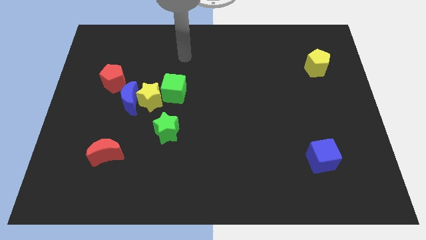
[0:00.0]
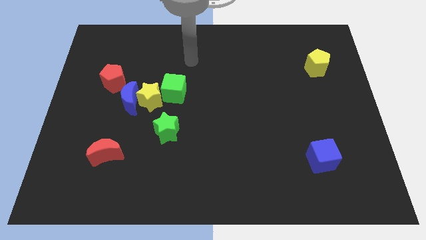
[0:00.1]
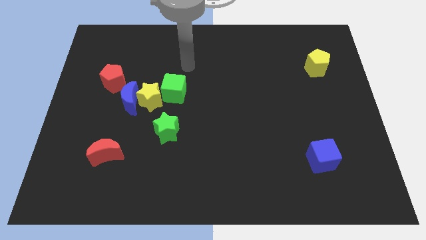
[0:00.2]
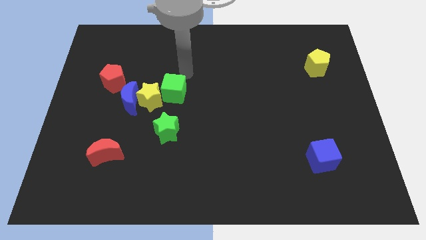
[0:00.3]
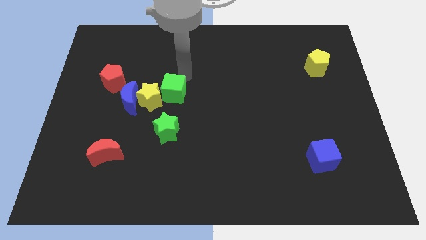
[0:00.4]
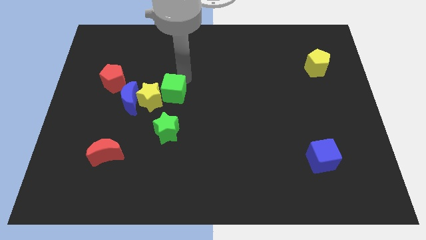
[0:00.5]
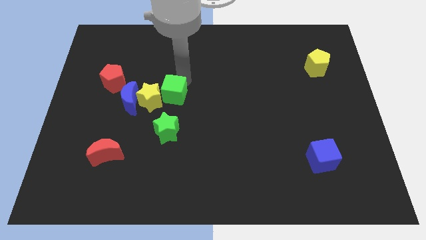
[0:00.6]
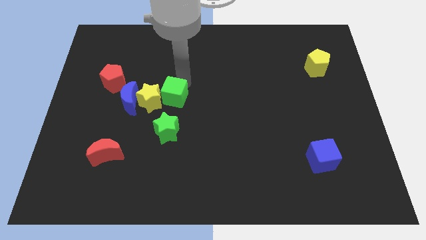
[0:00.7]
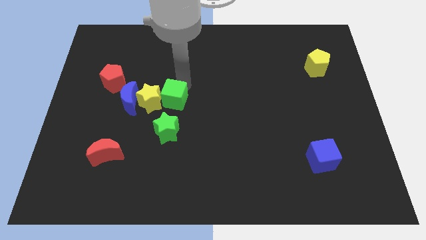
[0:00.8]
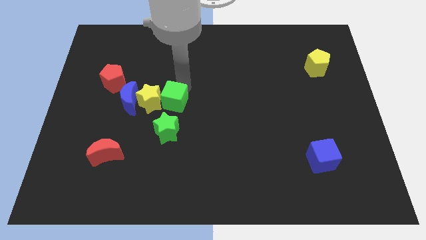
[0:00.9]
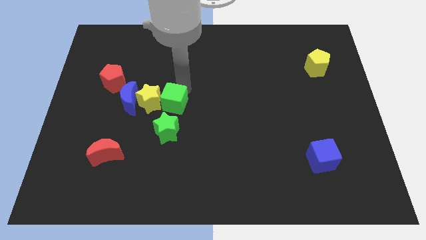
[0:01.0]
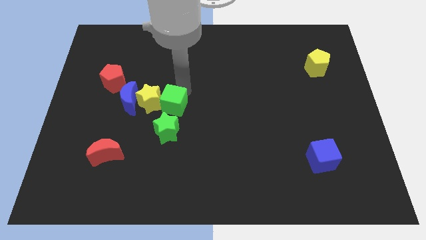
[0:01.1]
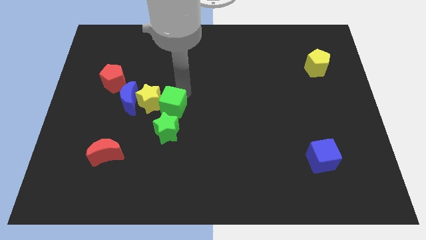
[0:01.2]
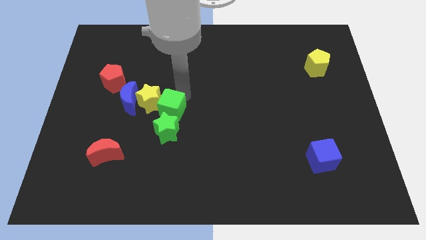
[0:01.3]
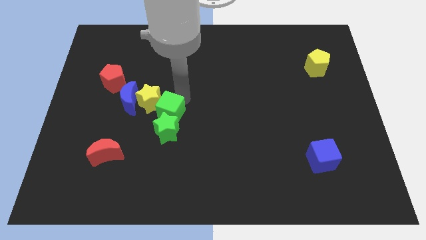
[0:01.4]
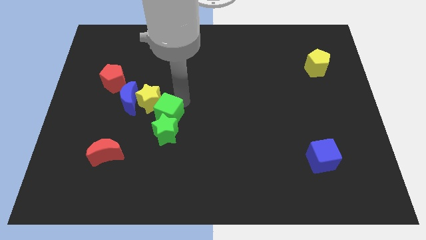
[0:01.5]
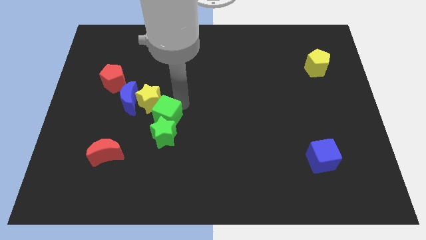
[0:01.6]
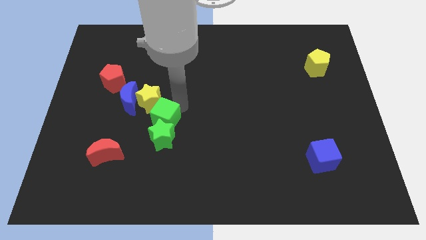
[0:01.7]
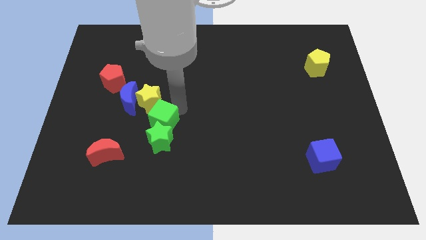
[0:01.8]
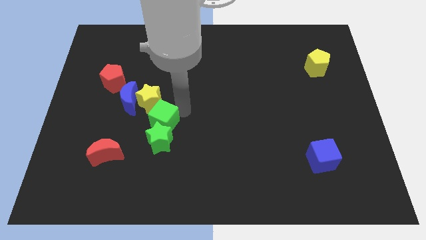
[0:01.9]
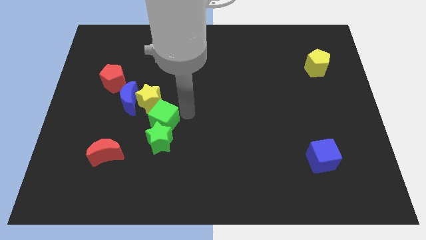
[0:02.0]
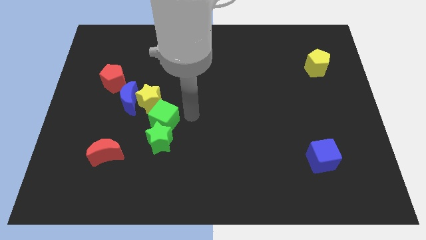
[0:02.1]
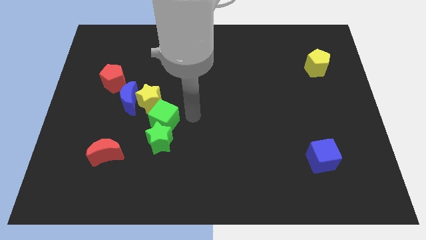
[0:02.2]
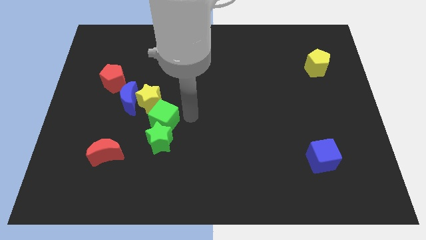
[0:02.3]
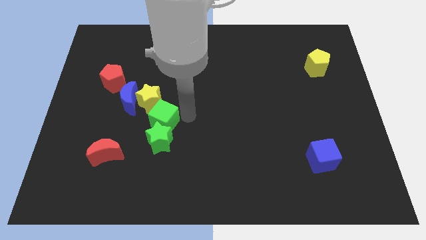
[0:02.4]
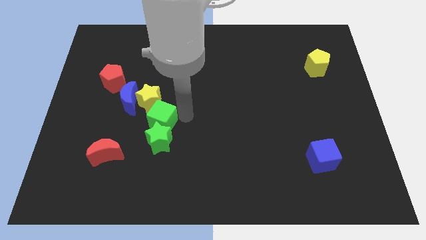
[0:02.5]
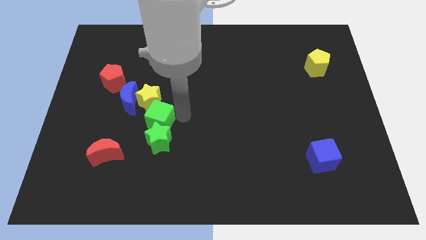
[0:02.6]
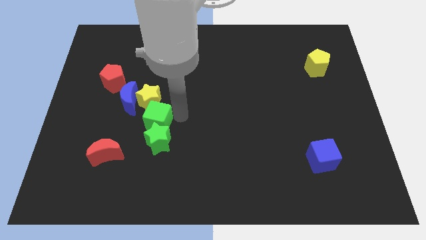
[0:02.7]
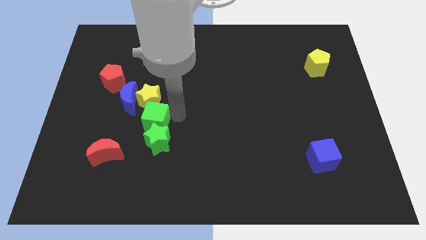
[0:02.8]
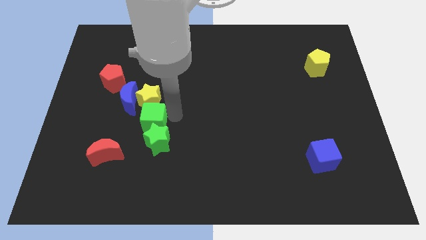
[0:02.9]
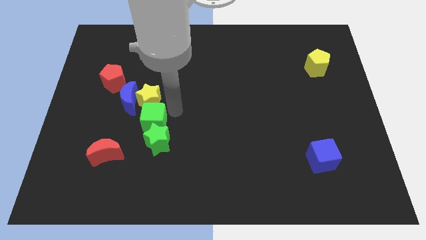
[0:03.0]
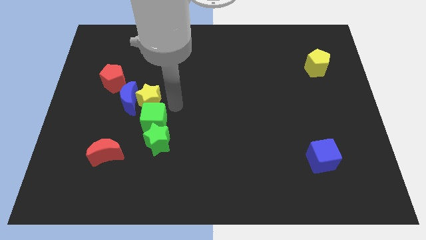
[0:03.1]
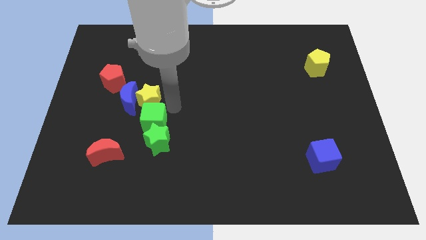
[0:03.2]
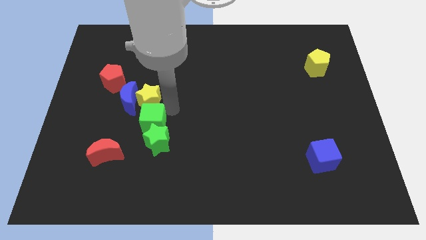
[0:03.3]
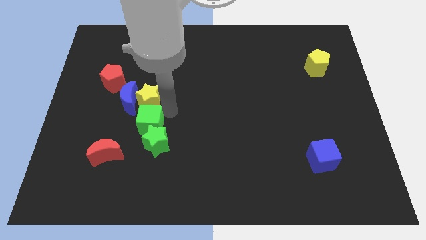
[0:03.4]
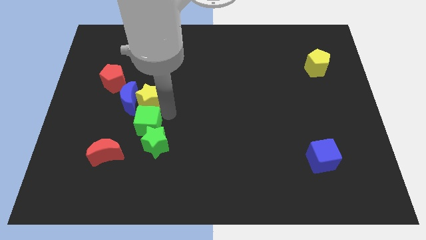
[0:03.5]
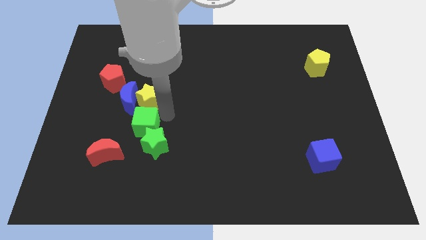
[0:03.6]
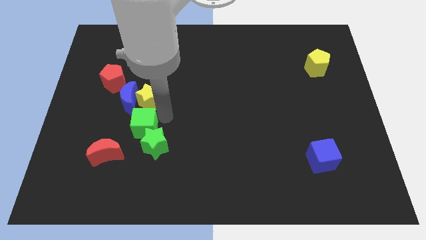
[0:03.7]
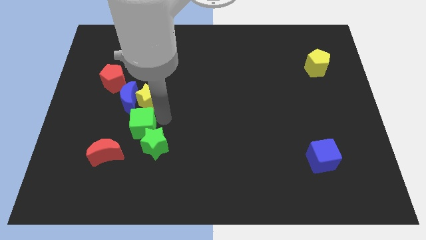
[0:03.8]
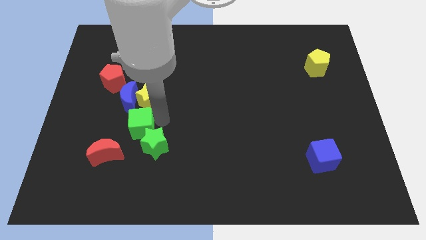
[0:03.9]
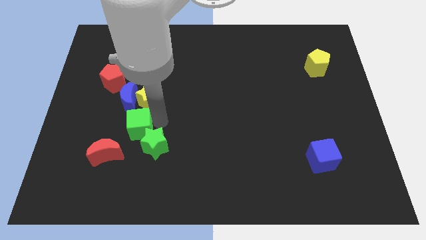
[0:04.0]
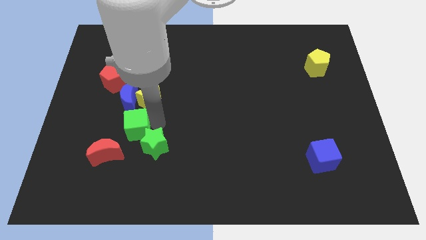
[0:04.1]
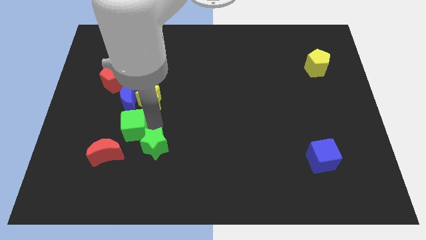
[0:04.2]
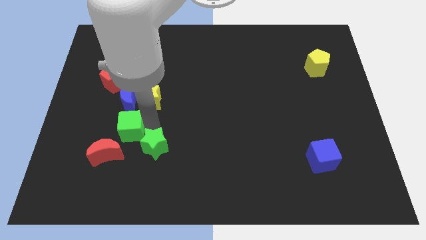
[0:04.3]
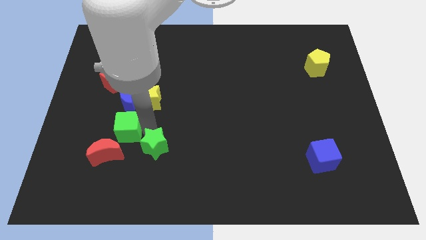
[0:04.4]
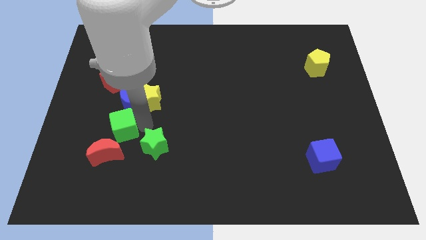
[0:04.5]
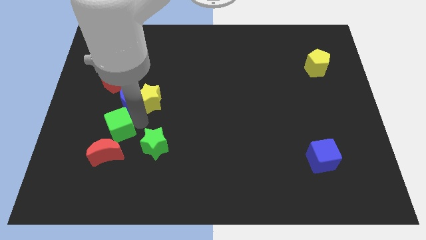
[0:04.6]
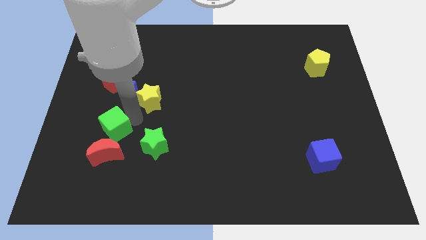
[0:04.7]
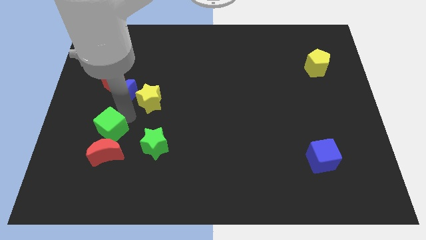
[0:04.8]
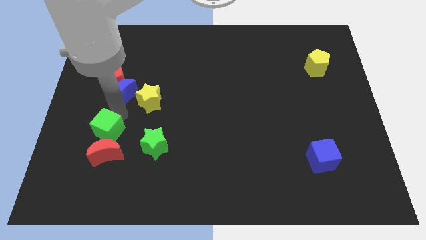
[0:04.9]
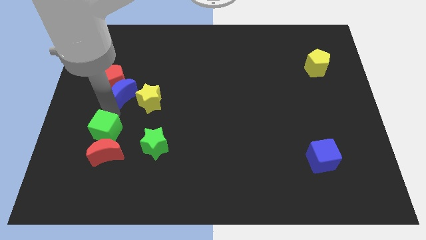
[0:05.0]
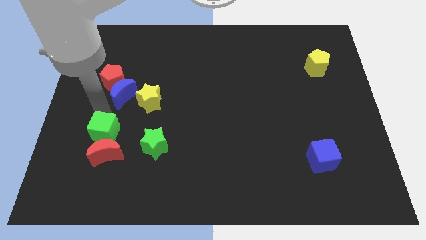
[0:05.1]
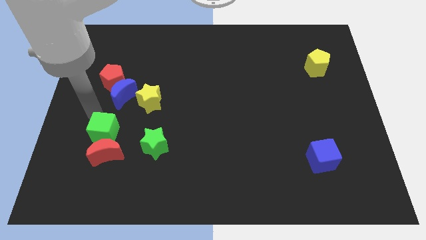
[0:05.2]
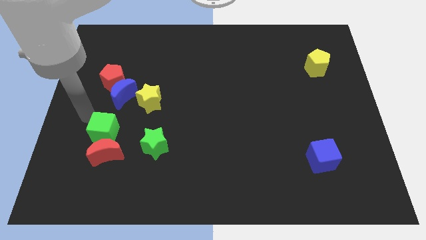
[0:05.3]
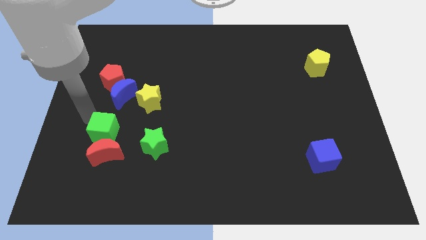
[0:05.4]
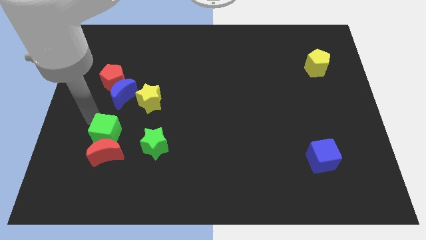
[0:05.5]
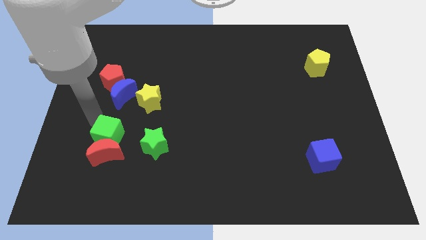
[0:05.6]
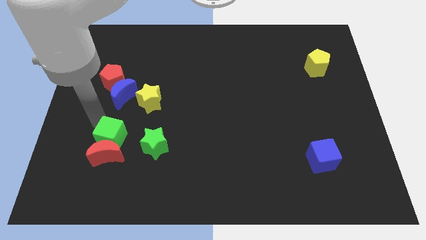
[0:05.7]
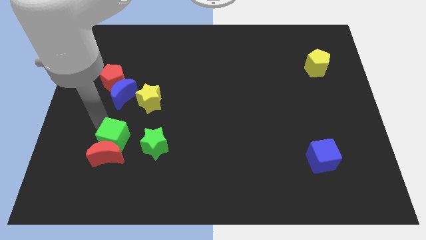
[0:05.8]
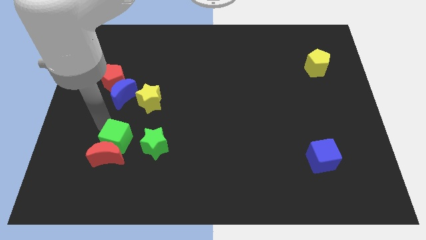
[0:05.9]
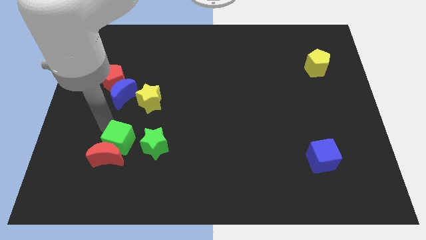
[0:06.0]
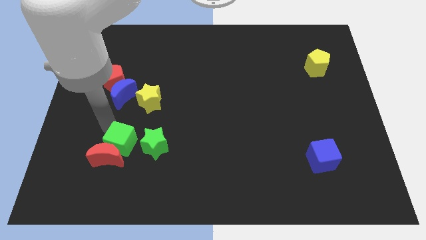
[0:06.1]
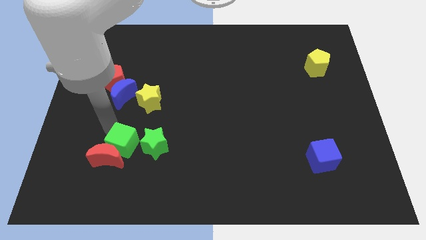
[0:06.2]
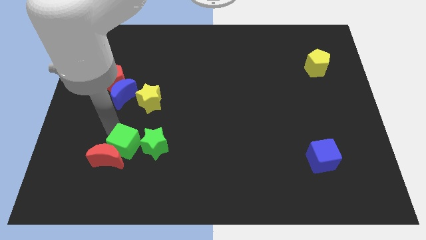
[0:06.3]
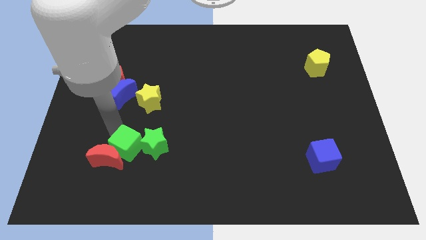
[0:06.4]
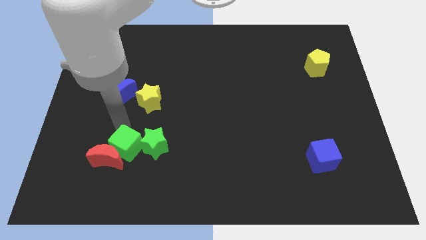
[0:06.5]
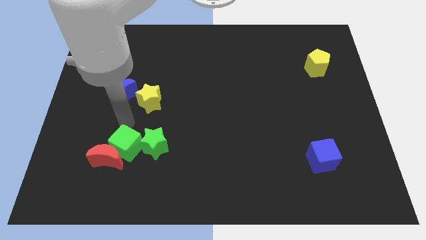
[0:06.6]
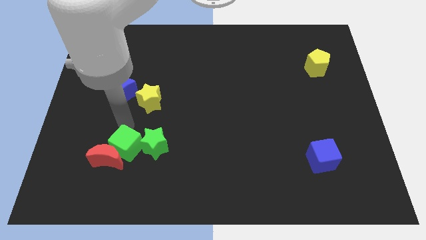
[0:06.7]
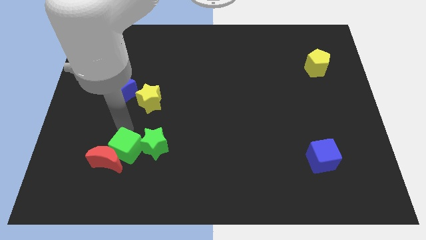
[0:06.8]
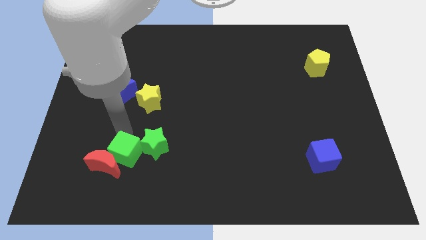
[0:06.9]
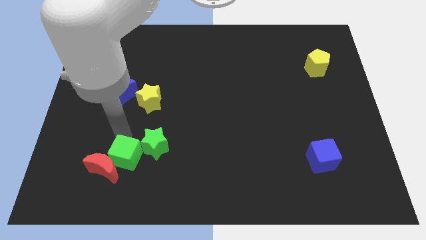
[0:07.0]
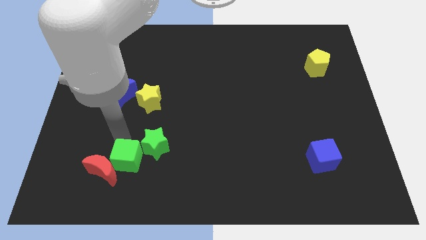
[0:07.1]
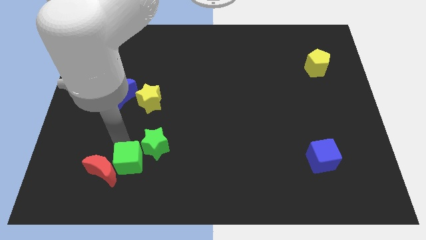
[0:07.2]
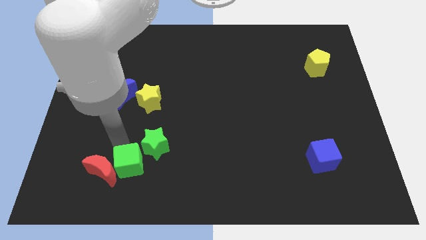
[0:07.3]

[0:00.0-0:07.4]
push the green cube to the bottom right of the red moon

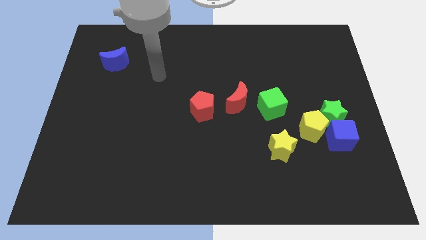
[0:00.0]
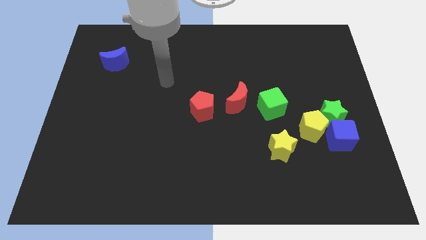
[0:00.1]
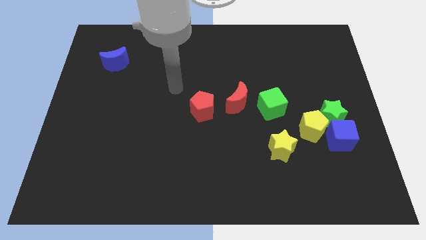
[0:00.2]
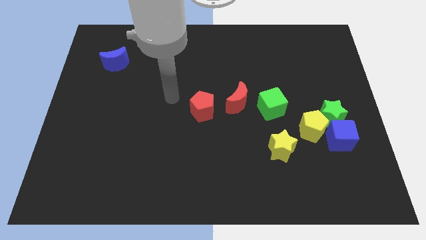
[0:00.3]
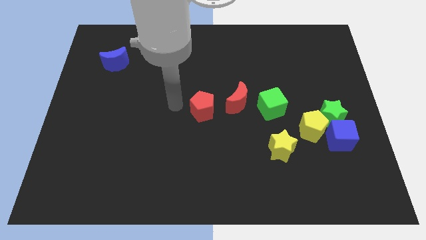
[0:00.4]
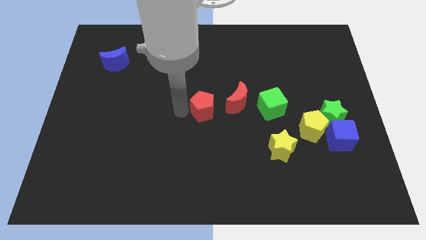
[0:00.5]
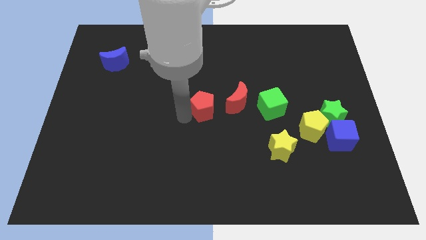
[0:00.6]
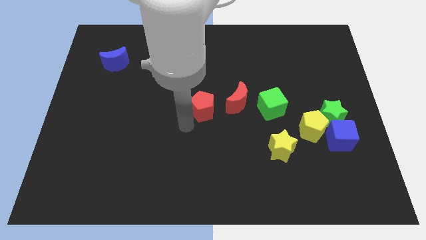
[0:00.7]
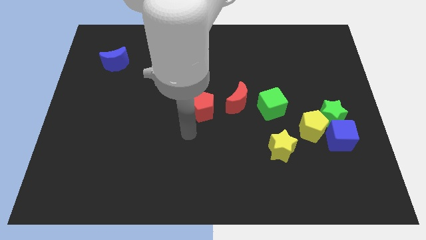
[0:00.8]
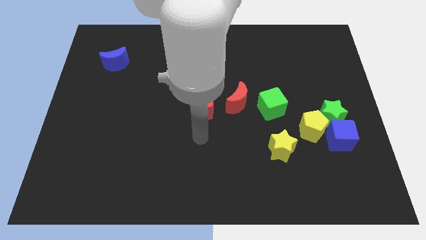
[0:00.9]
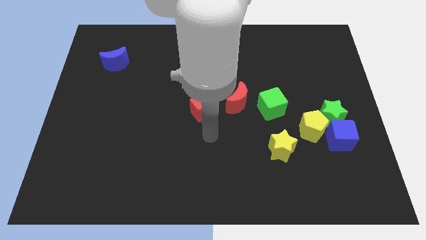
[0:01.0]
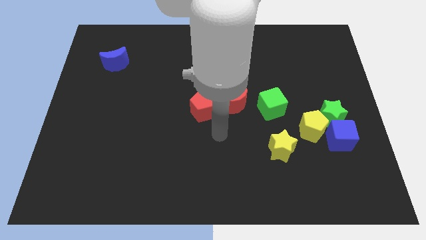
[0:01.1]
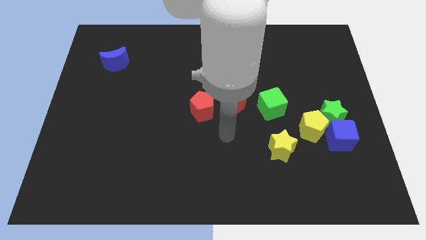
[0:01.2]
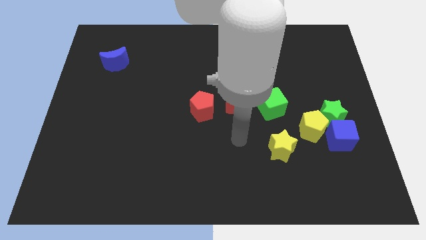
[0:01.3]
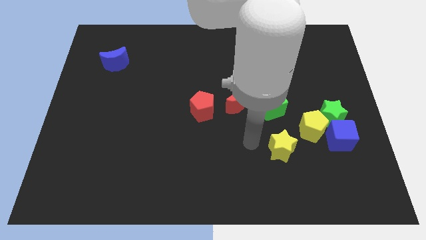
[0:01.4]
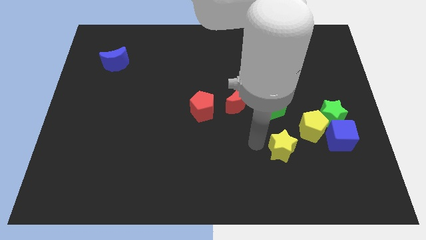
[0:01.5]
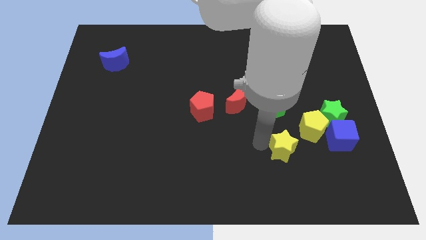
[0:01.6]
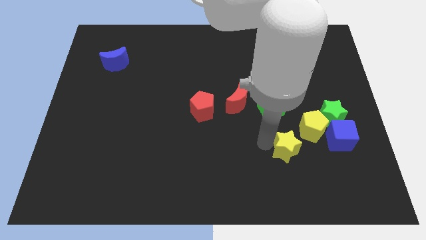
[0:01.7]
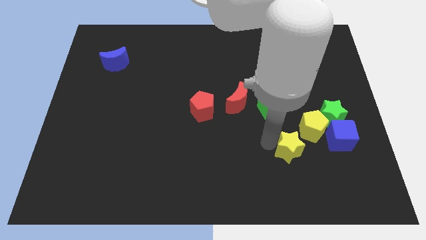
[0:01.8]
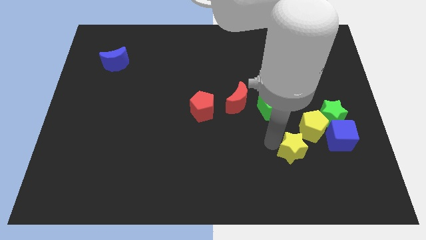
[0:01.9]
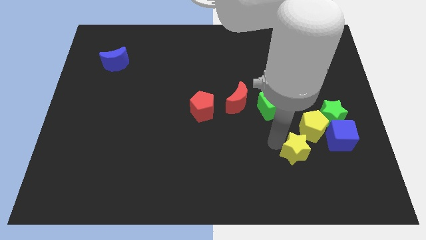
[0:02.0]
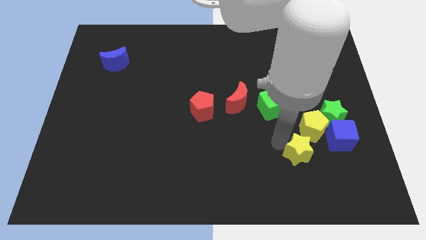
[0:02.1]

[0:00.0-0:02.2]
slide the yellow star diagonally down and to the left of the blue cube
